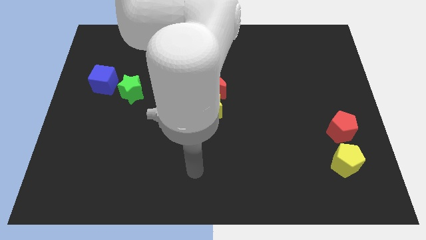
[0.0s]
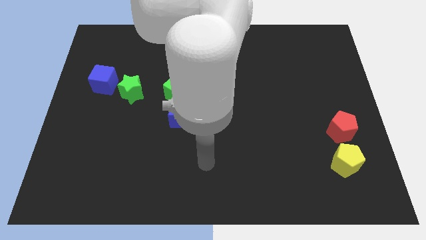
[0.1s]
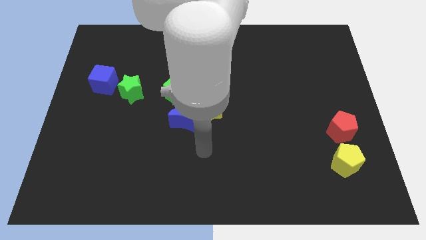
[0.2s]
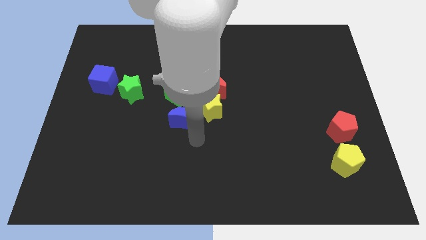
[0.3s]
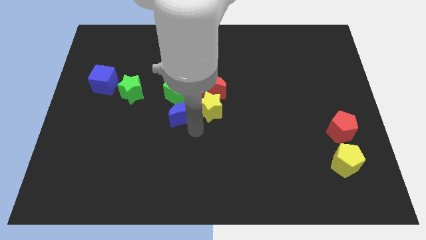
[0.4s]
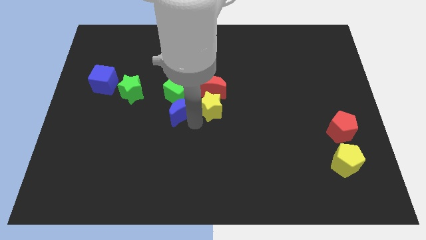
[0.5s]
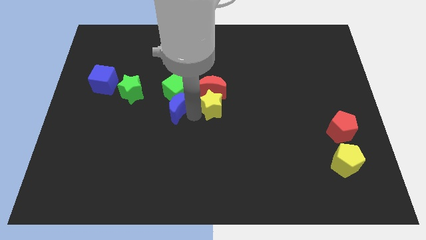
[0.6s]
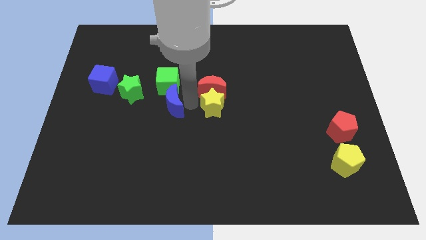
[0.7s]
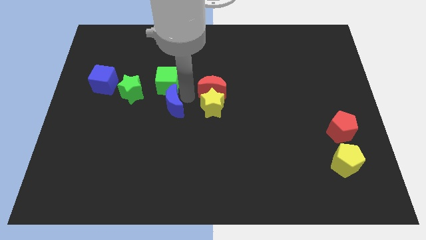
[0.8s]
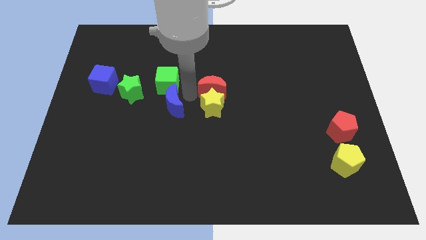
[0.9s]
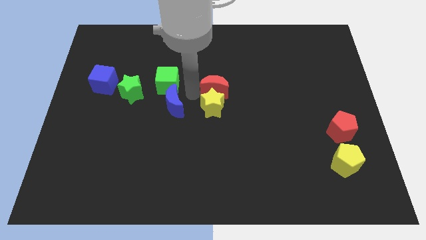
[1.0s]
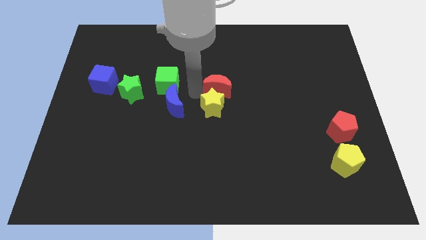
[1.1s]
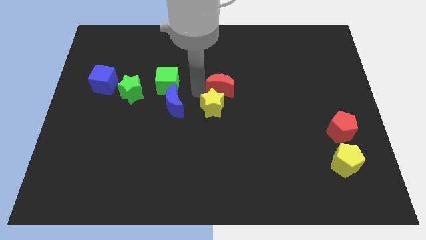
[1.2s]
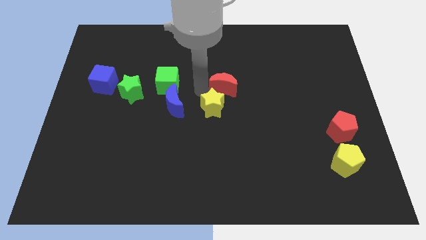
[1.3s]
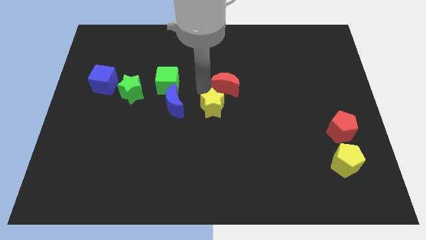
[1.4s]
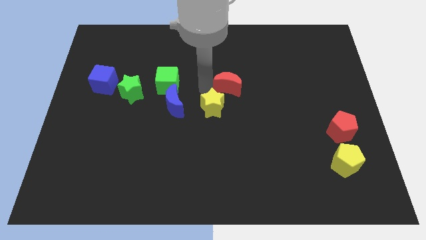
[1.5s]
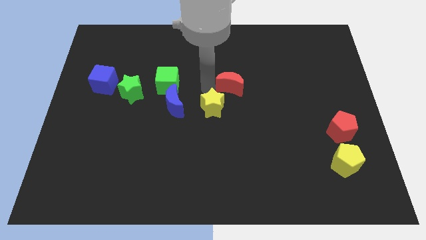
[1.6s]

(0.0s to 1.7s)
pull the red moon apart from the yellow star and green cube

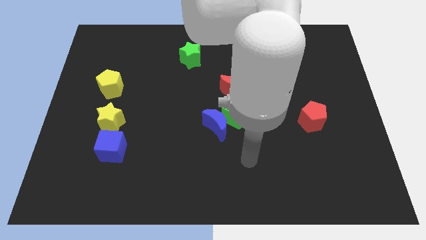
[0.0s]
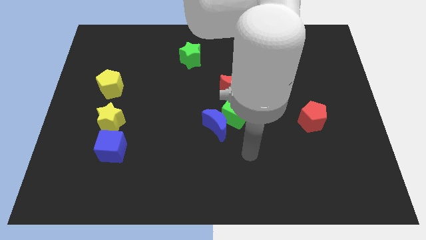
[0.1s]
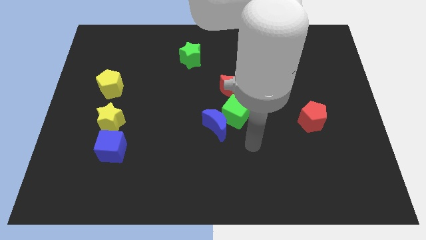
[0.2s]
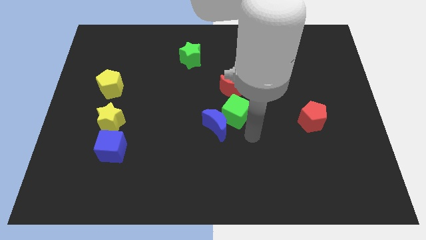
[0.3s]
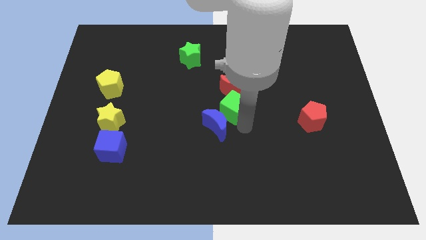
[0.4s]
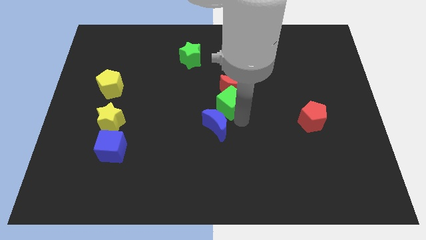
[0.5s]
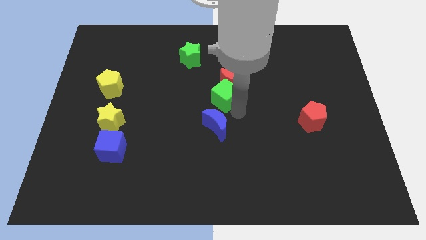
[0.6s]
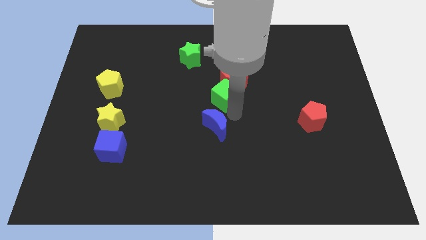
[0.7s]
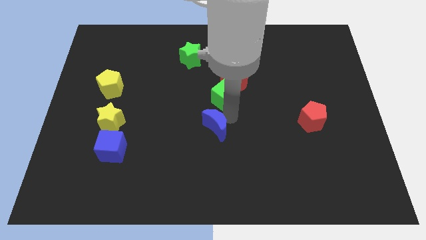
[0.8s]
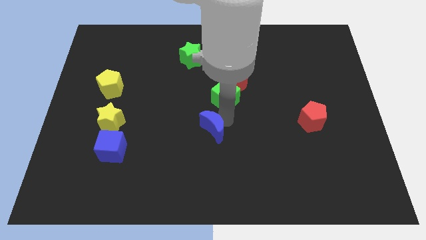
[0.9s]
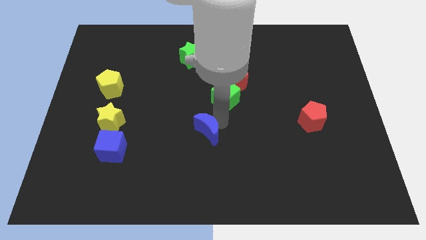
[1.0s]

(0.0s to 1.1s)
separate the blue moon from the green cube

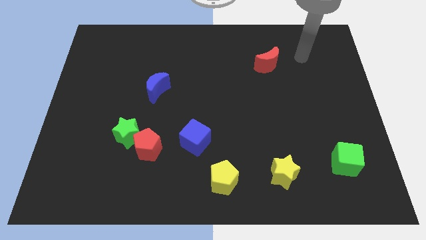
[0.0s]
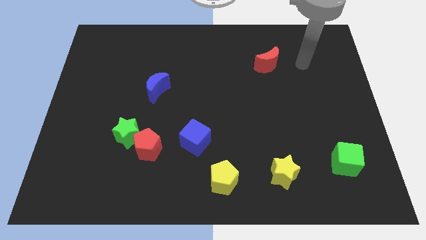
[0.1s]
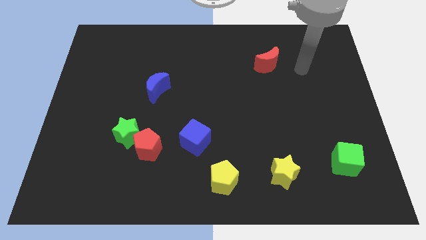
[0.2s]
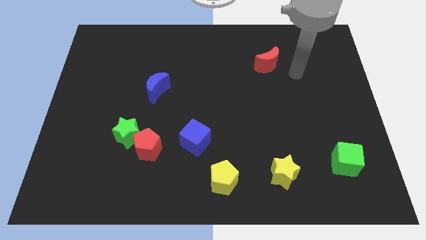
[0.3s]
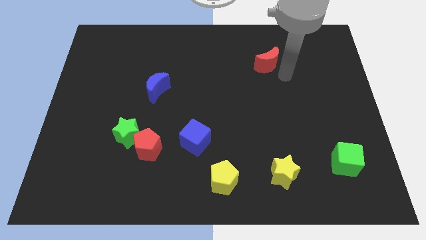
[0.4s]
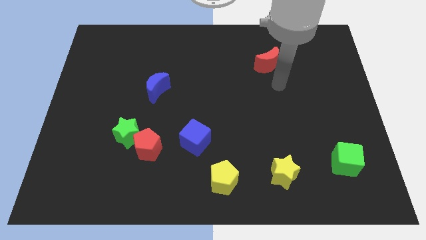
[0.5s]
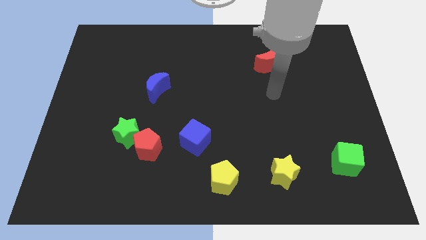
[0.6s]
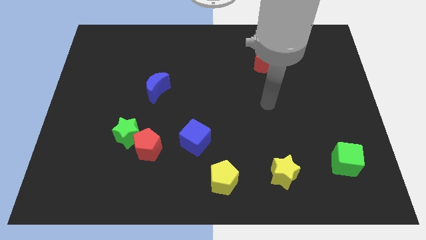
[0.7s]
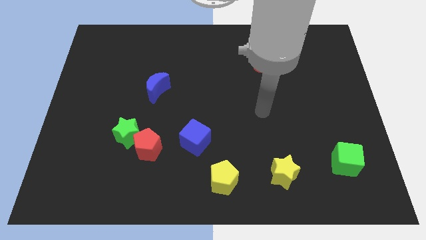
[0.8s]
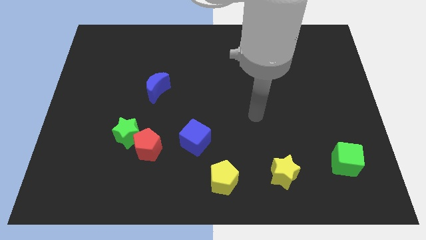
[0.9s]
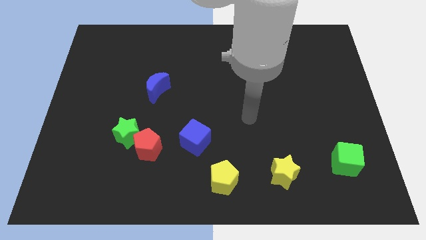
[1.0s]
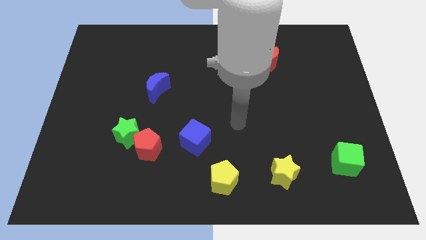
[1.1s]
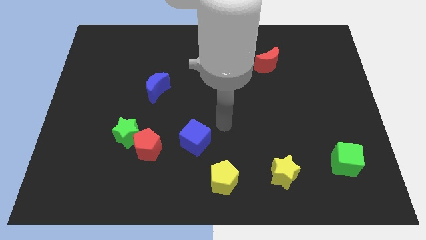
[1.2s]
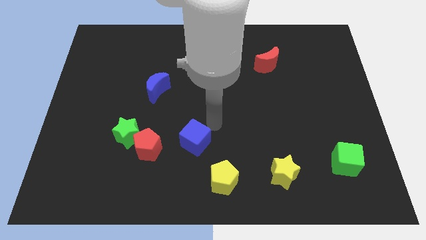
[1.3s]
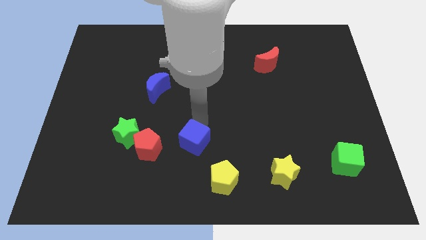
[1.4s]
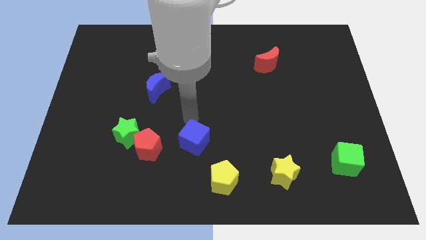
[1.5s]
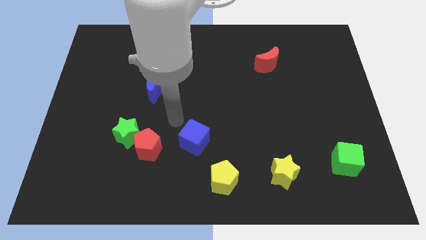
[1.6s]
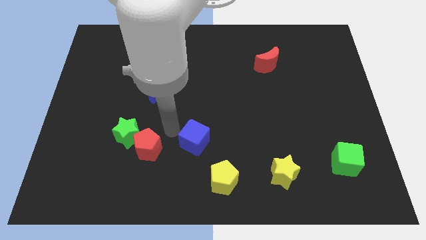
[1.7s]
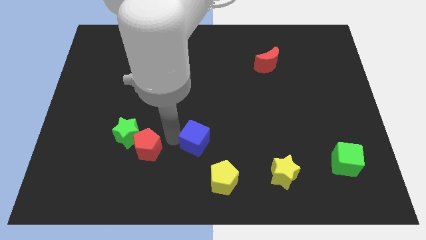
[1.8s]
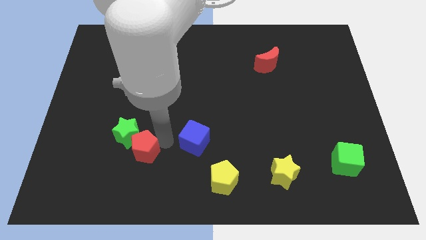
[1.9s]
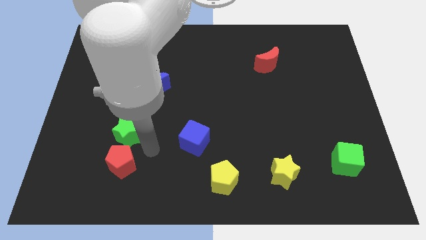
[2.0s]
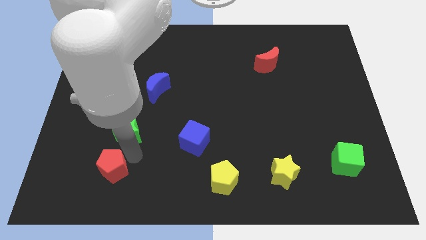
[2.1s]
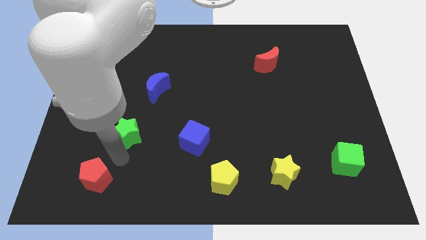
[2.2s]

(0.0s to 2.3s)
separate the green star from the red pentagon

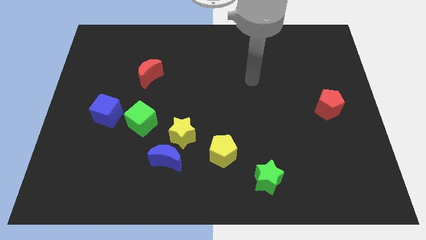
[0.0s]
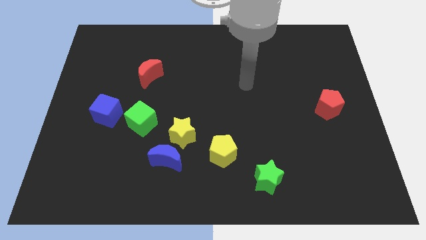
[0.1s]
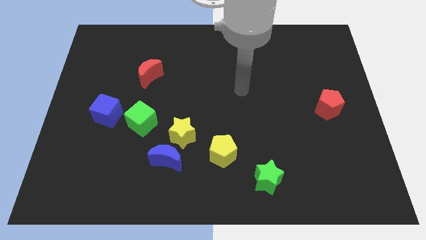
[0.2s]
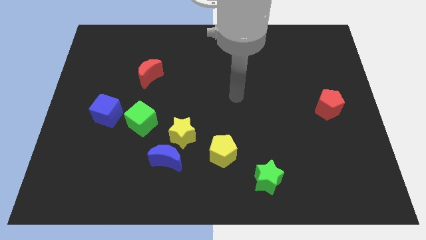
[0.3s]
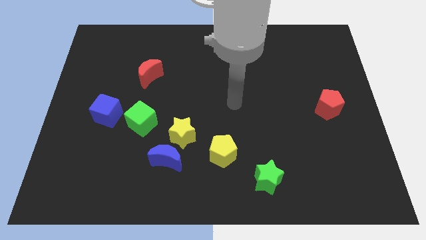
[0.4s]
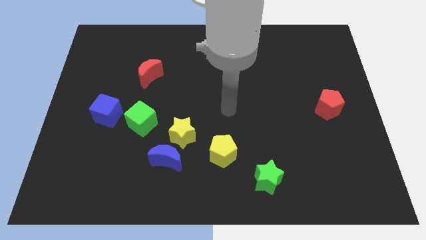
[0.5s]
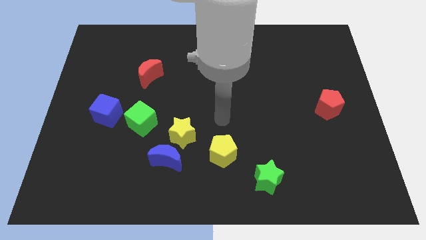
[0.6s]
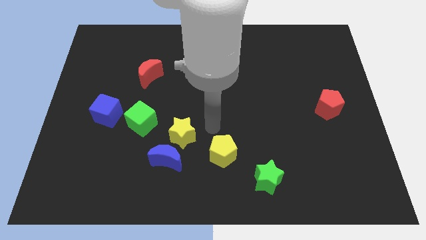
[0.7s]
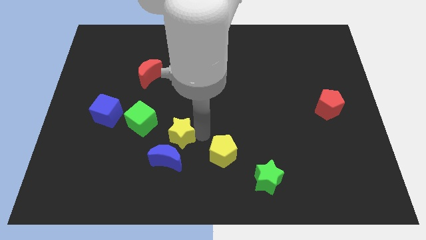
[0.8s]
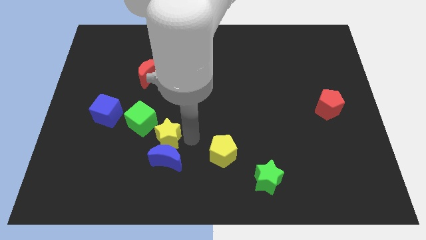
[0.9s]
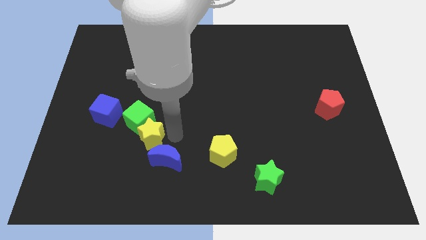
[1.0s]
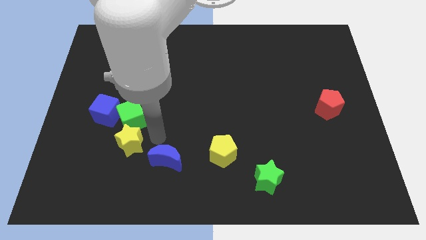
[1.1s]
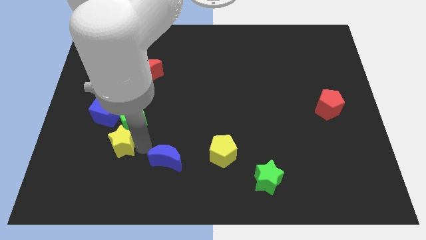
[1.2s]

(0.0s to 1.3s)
pull the blue moon apart from the yellow star

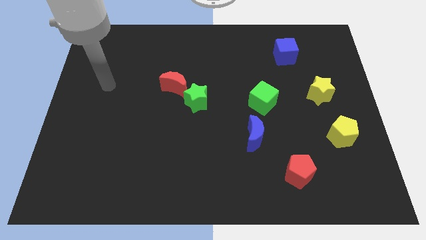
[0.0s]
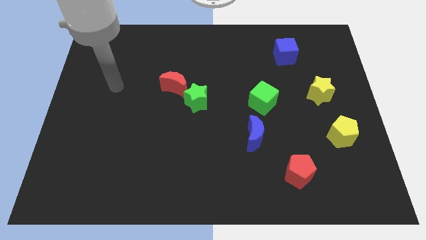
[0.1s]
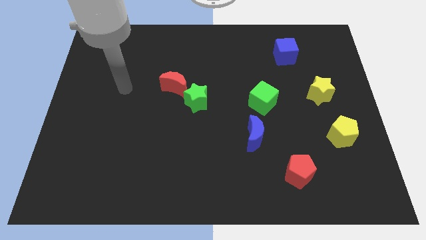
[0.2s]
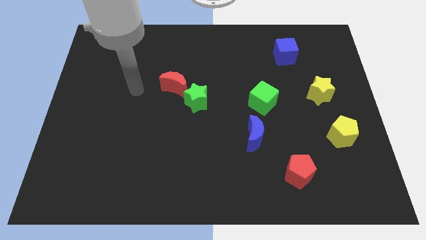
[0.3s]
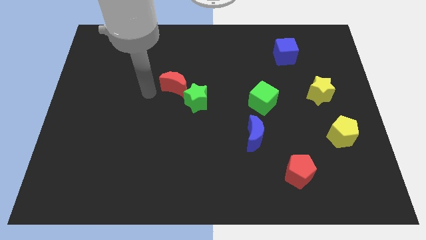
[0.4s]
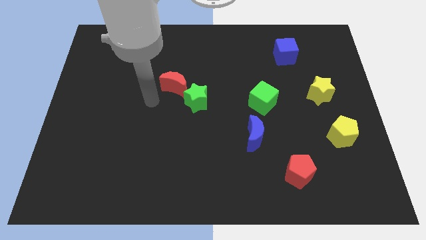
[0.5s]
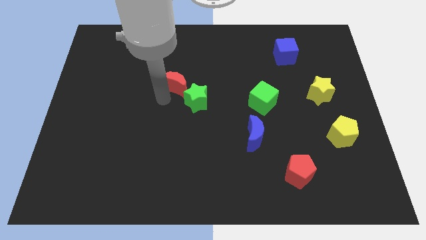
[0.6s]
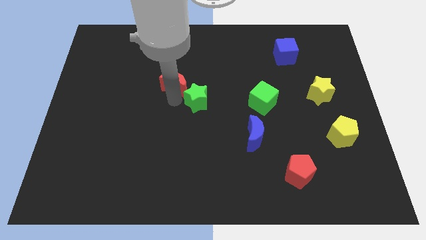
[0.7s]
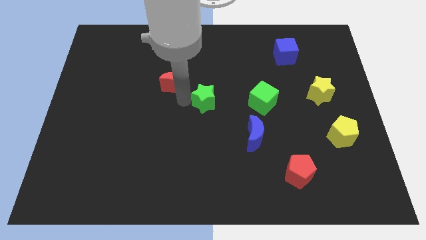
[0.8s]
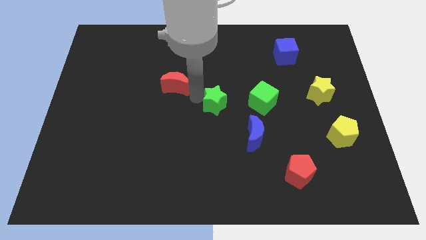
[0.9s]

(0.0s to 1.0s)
move the red moon away from the green star

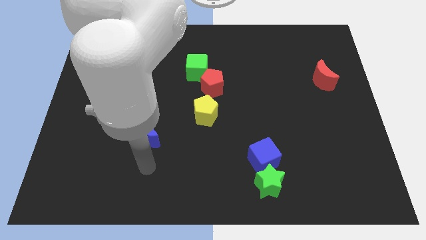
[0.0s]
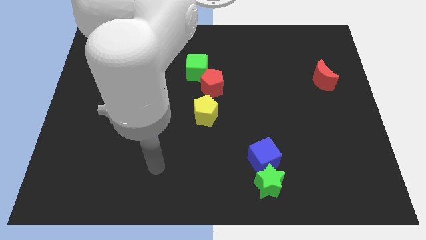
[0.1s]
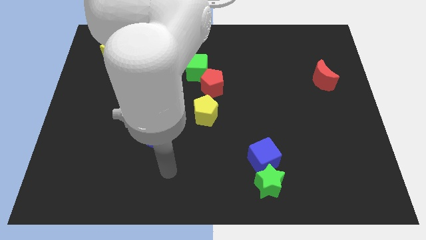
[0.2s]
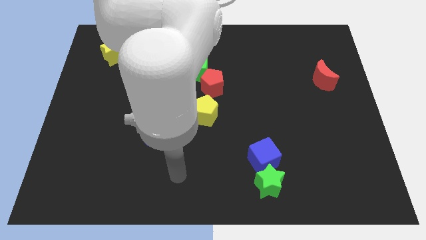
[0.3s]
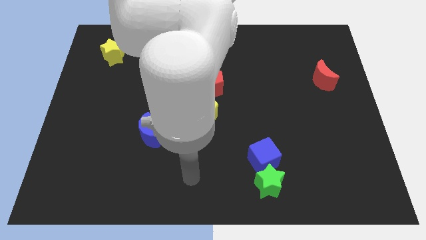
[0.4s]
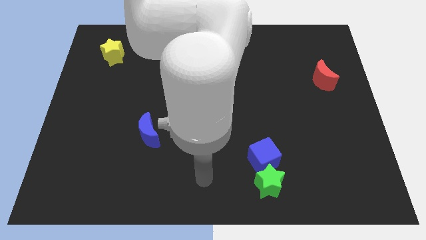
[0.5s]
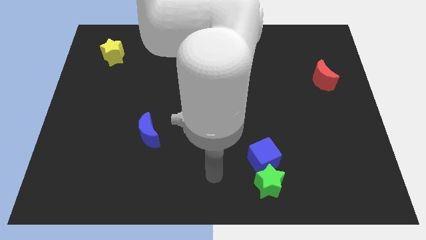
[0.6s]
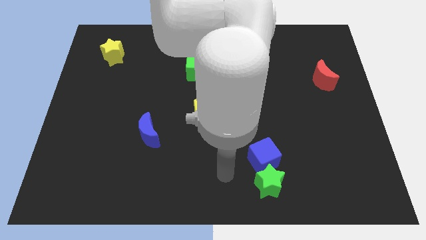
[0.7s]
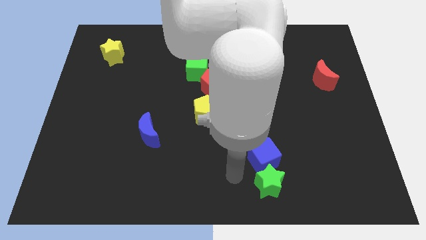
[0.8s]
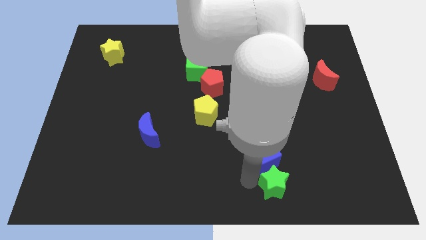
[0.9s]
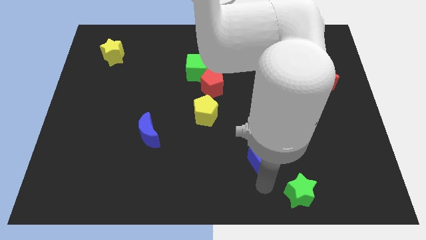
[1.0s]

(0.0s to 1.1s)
move the blue cube away from the green star

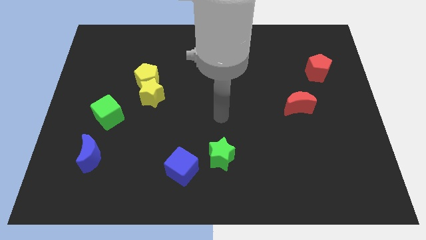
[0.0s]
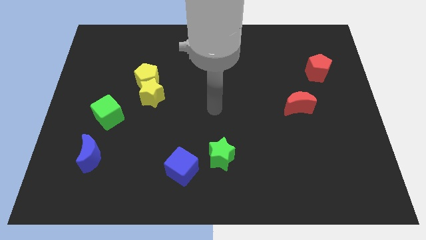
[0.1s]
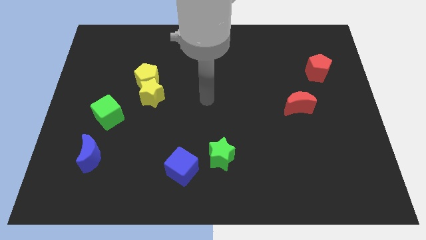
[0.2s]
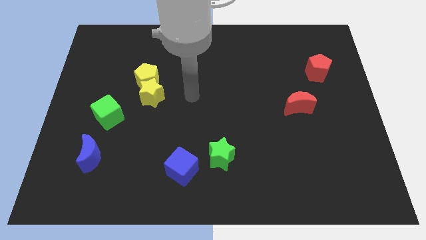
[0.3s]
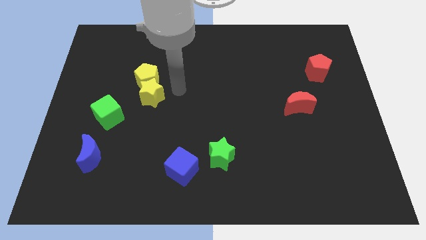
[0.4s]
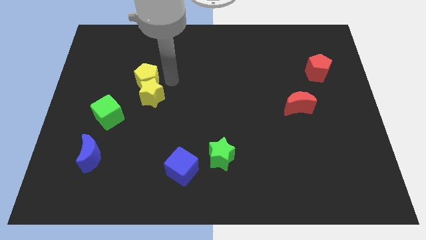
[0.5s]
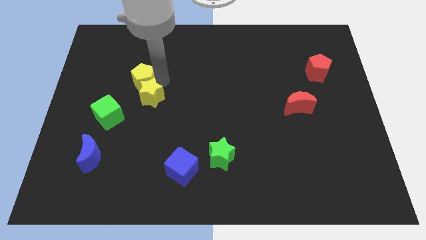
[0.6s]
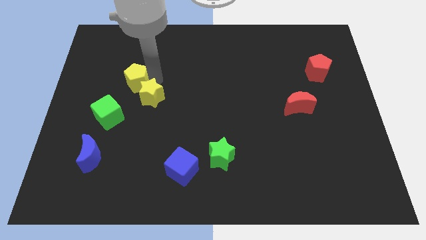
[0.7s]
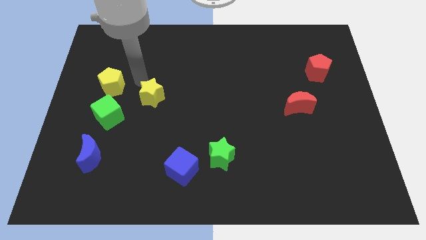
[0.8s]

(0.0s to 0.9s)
move the yellow star away from the yellow pentagon
